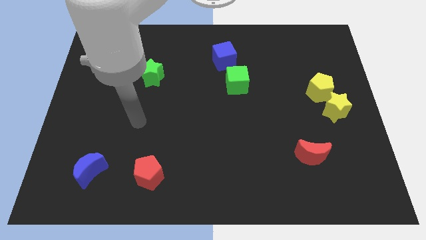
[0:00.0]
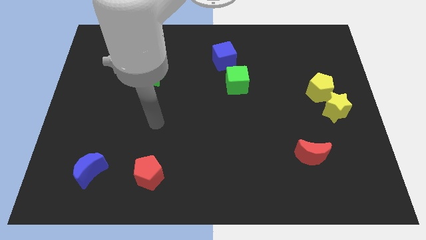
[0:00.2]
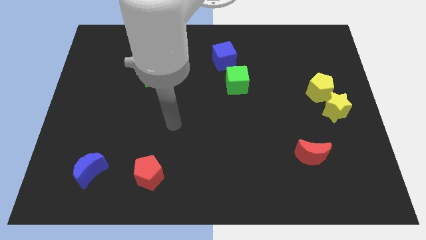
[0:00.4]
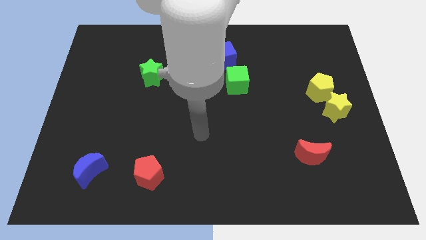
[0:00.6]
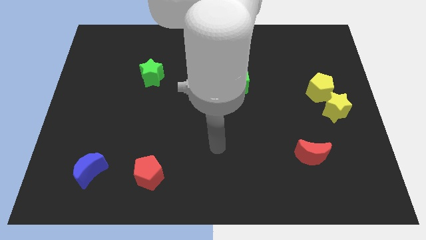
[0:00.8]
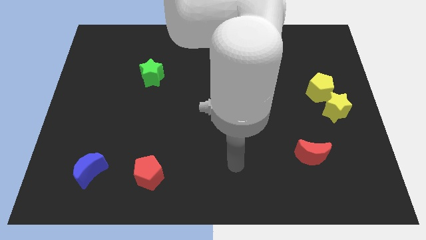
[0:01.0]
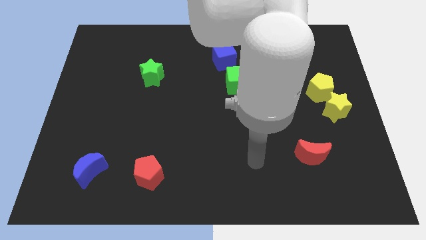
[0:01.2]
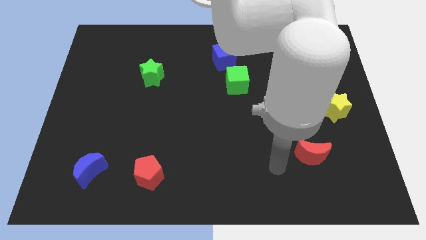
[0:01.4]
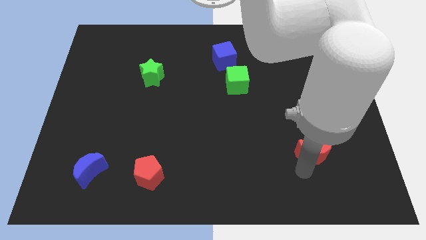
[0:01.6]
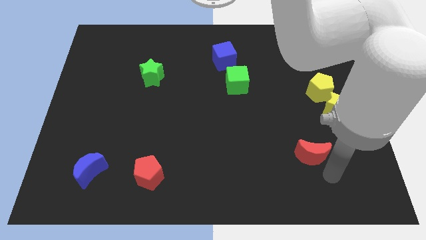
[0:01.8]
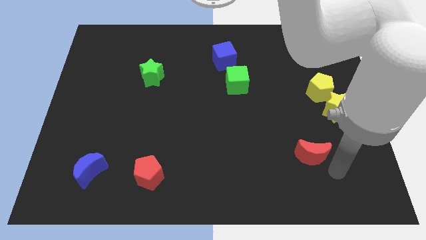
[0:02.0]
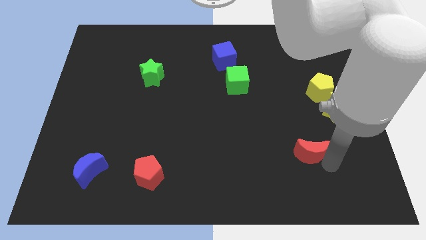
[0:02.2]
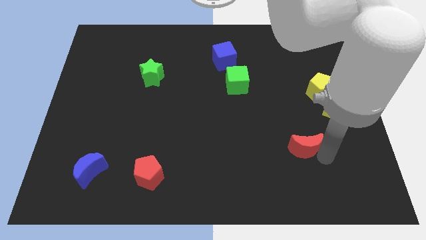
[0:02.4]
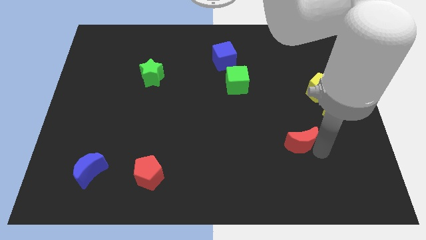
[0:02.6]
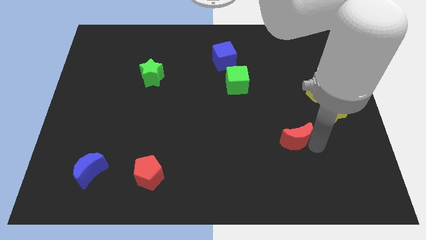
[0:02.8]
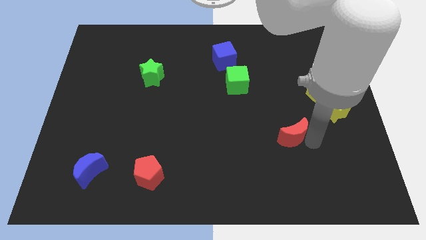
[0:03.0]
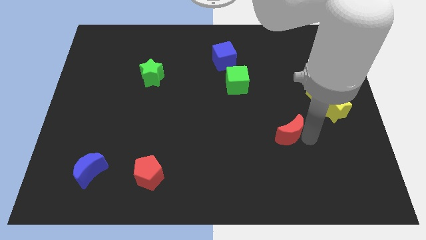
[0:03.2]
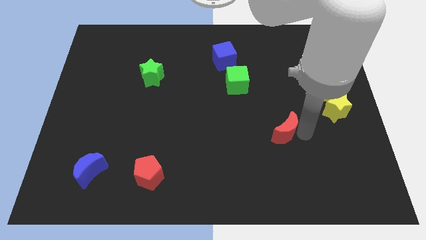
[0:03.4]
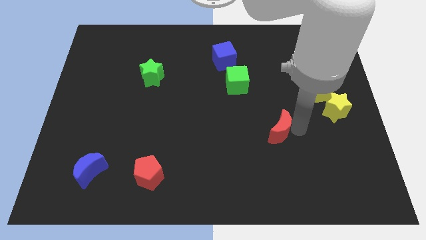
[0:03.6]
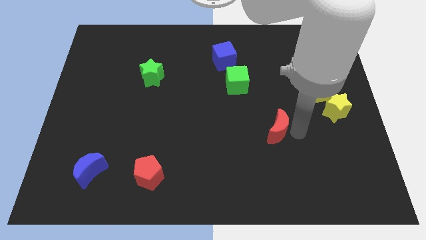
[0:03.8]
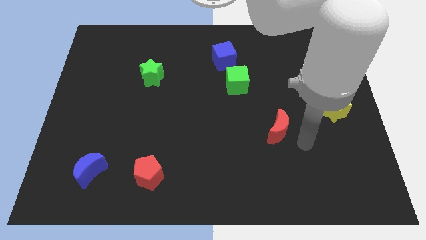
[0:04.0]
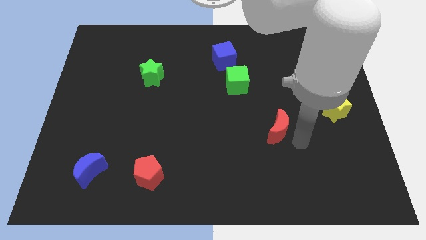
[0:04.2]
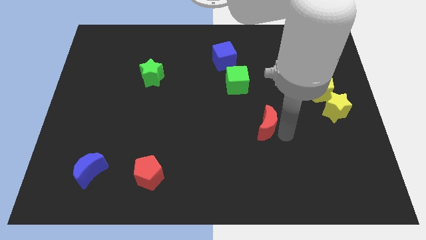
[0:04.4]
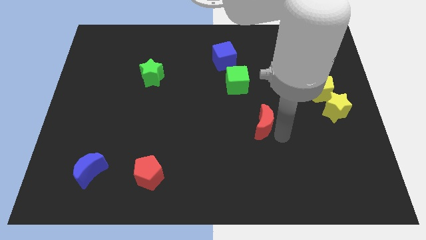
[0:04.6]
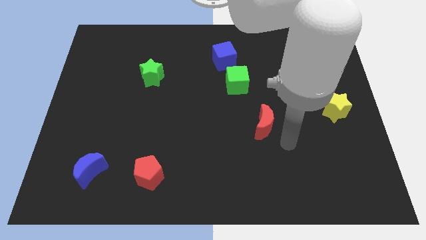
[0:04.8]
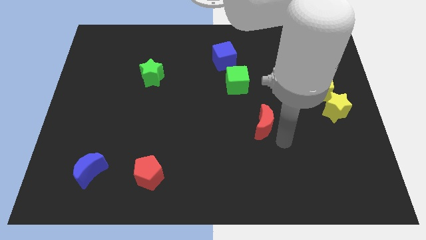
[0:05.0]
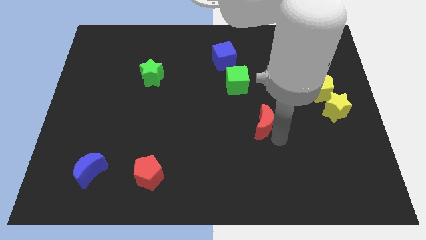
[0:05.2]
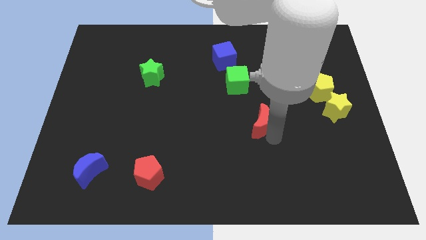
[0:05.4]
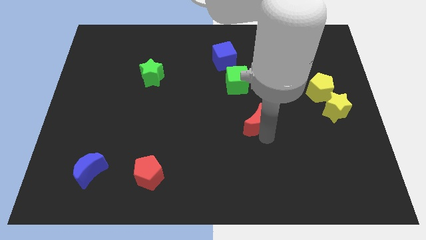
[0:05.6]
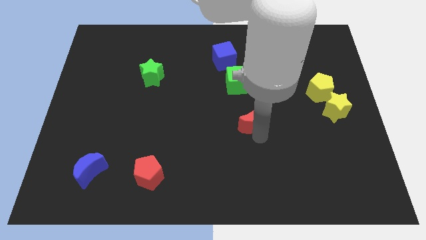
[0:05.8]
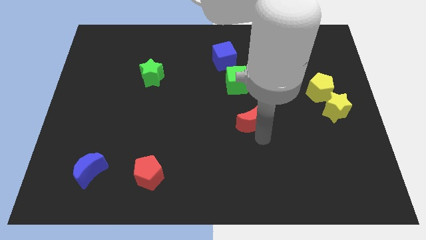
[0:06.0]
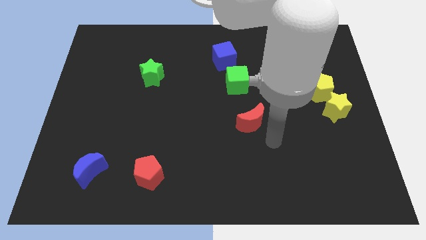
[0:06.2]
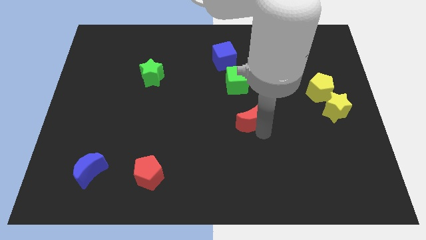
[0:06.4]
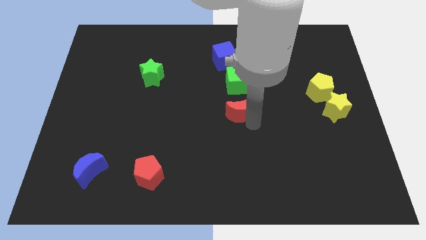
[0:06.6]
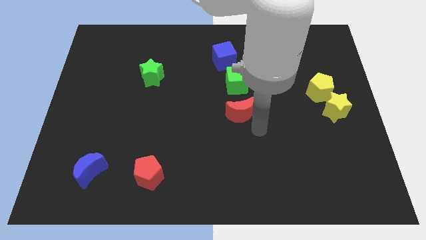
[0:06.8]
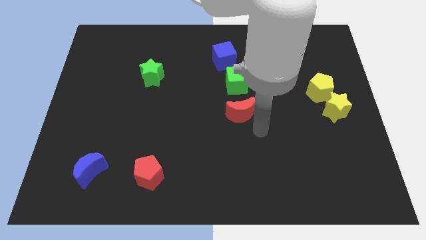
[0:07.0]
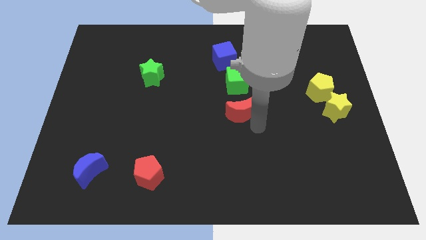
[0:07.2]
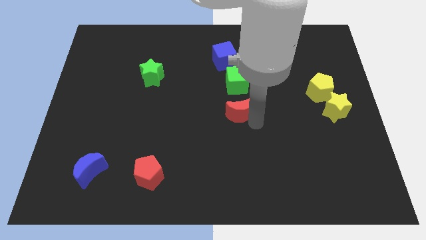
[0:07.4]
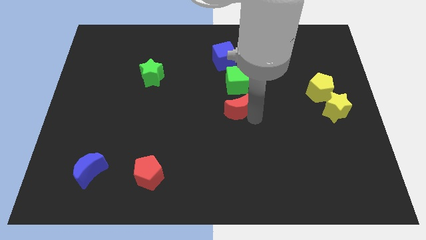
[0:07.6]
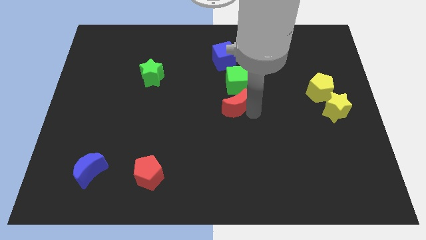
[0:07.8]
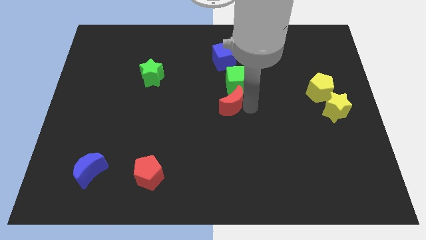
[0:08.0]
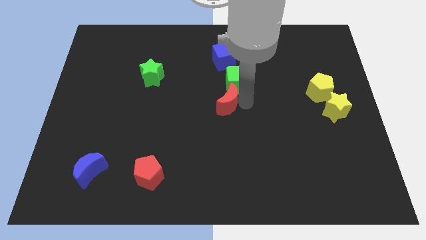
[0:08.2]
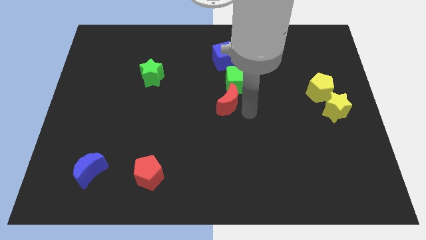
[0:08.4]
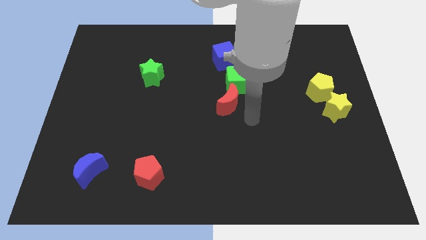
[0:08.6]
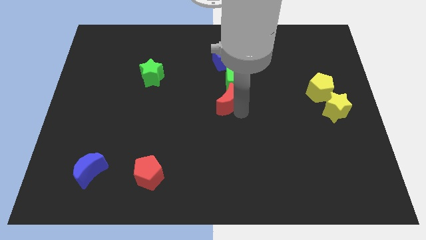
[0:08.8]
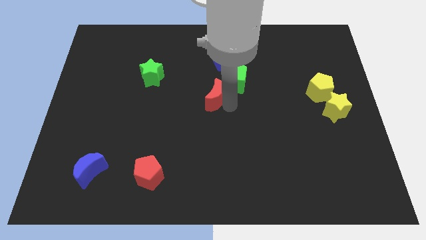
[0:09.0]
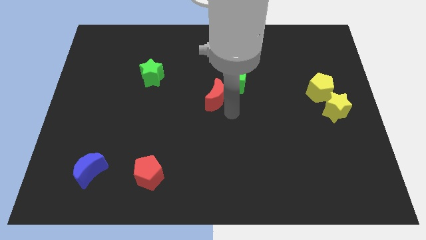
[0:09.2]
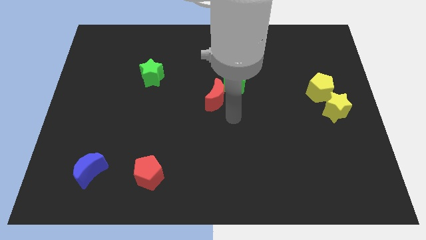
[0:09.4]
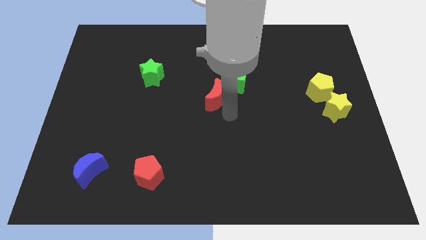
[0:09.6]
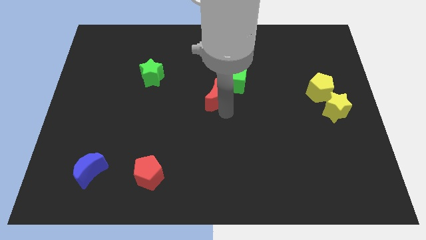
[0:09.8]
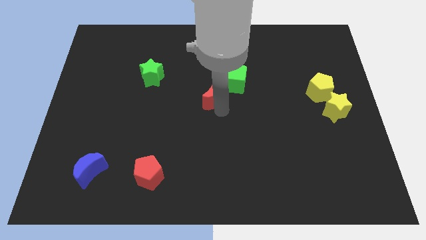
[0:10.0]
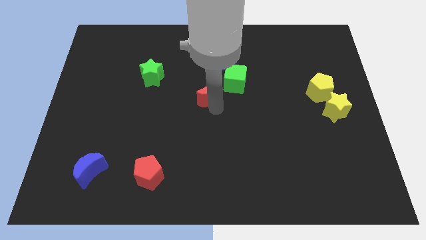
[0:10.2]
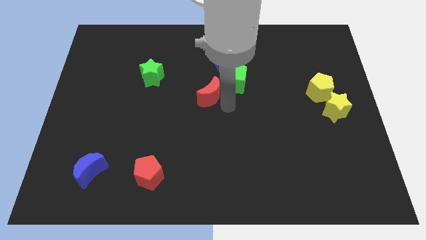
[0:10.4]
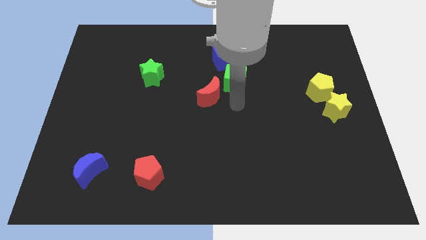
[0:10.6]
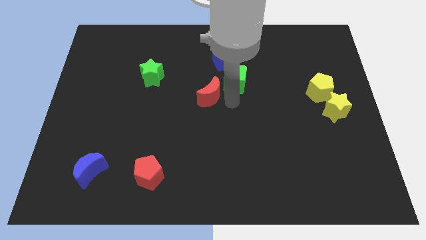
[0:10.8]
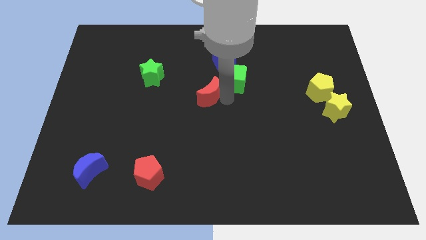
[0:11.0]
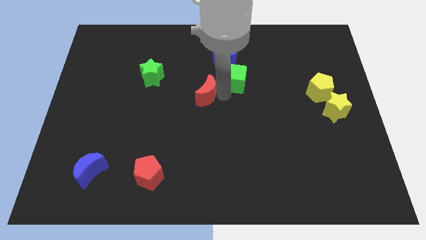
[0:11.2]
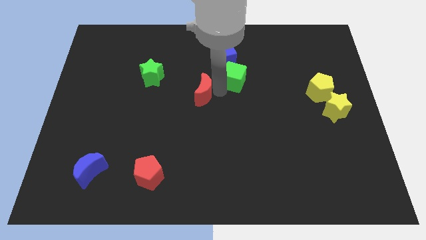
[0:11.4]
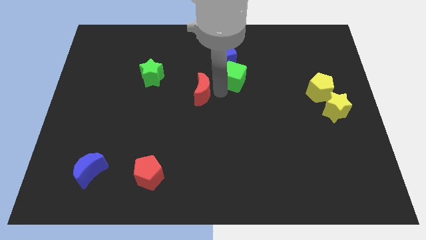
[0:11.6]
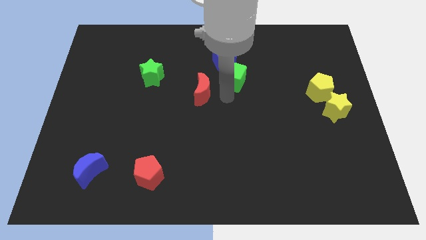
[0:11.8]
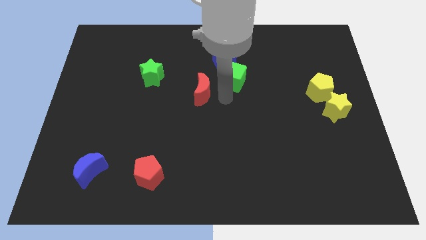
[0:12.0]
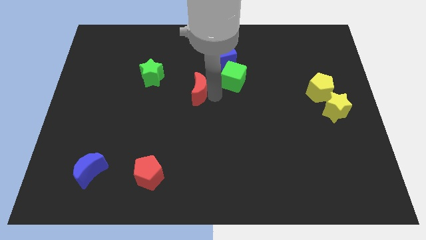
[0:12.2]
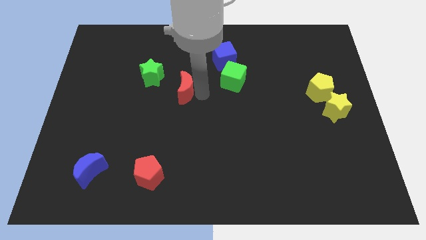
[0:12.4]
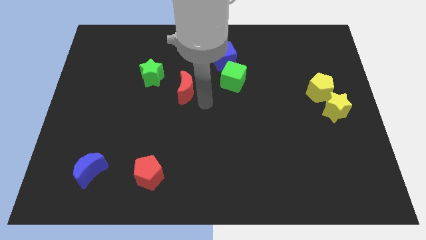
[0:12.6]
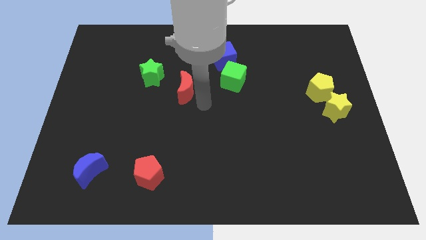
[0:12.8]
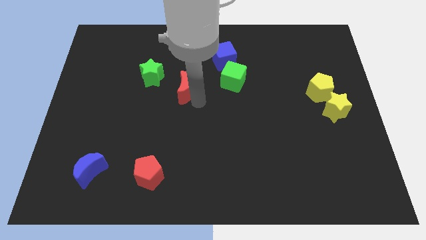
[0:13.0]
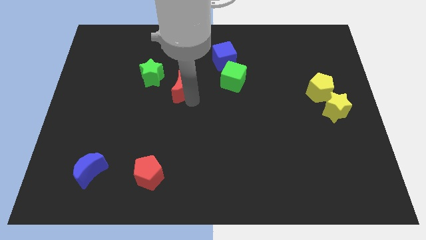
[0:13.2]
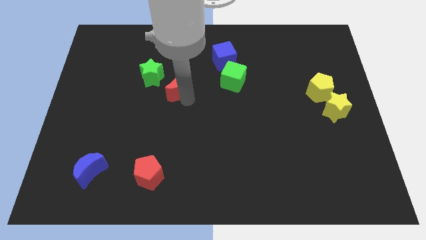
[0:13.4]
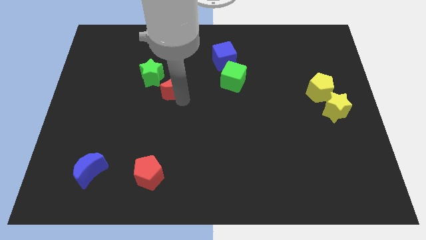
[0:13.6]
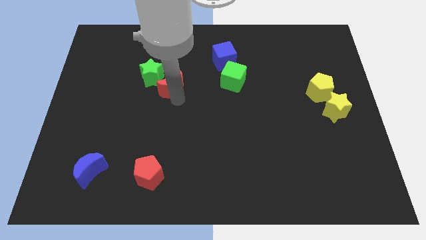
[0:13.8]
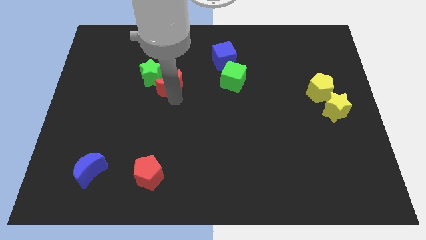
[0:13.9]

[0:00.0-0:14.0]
move the red moon close to the green star
